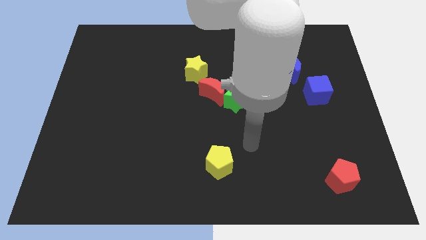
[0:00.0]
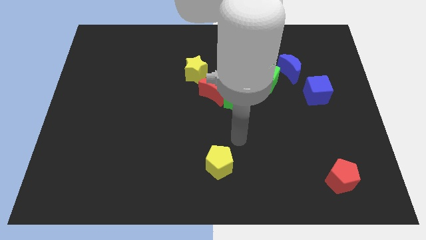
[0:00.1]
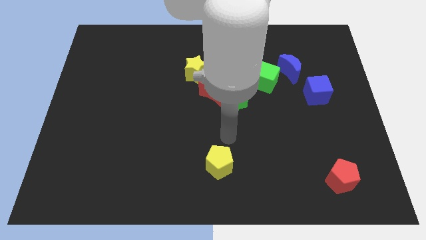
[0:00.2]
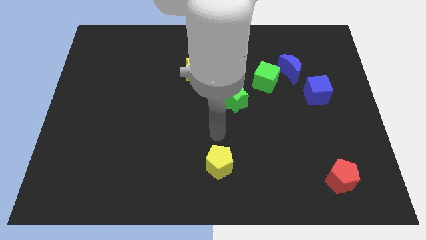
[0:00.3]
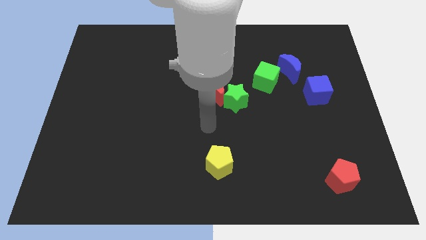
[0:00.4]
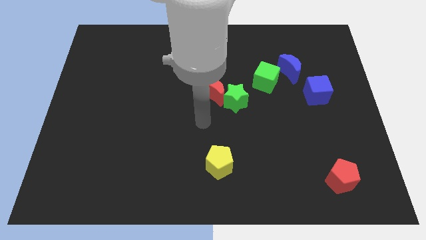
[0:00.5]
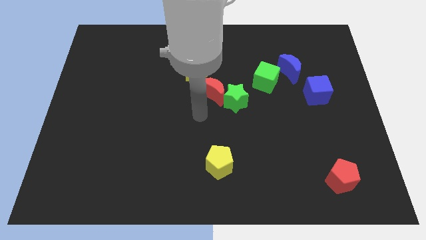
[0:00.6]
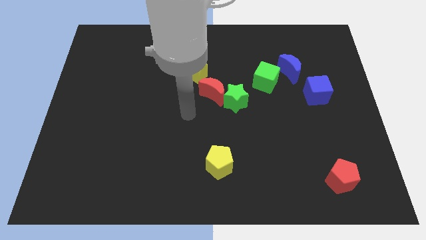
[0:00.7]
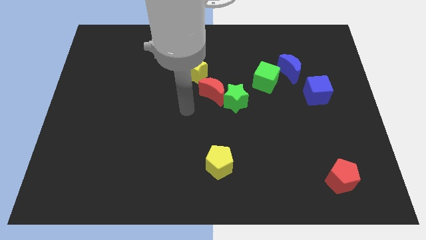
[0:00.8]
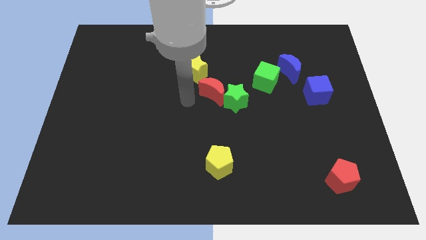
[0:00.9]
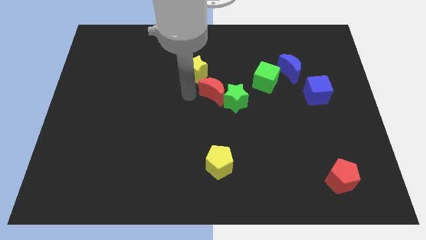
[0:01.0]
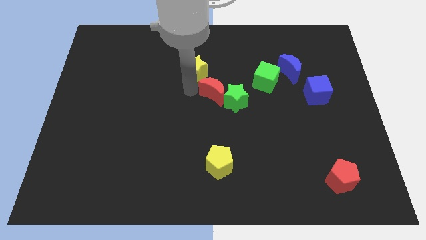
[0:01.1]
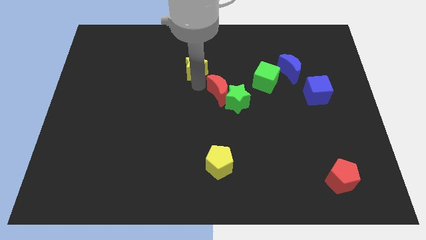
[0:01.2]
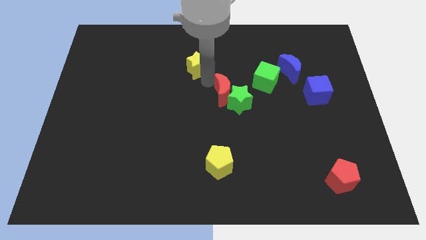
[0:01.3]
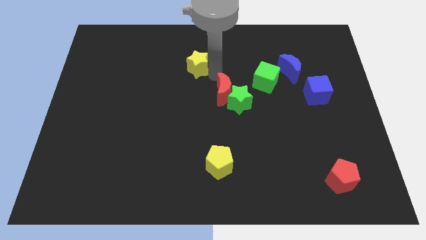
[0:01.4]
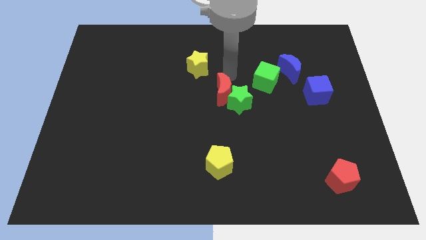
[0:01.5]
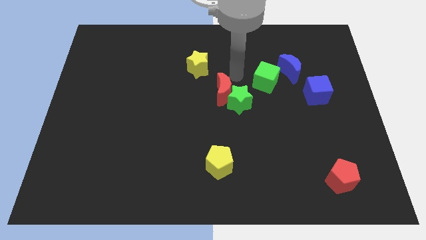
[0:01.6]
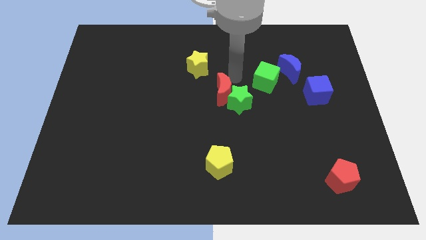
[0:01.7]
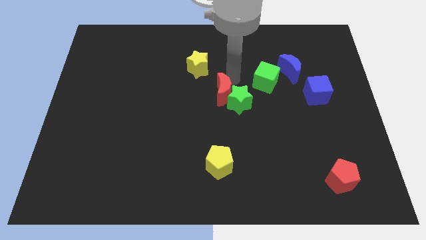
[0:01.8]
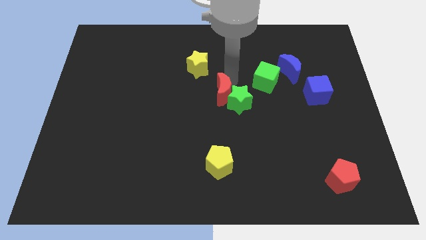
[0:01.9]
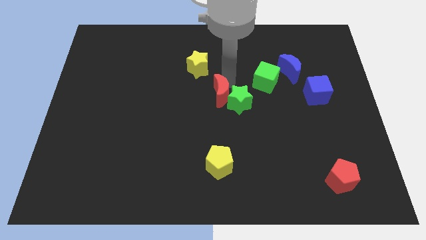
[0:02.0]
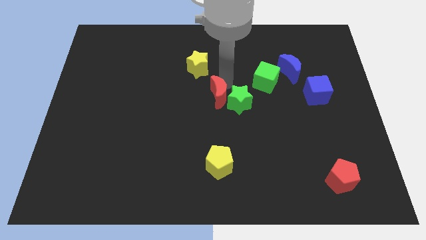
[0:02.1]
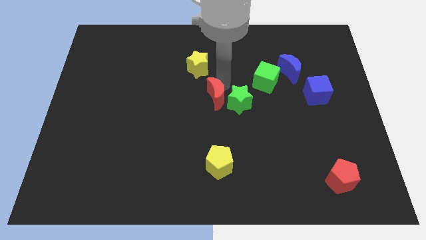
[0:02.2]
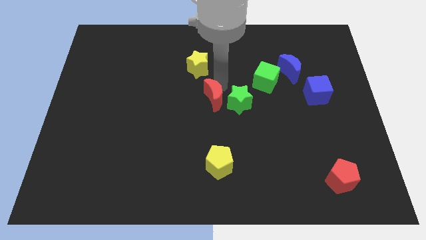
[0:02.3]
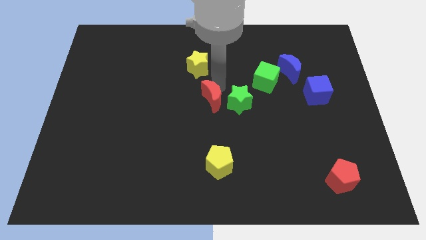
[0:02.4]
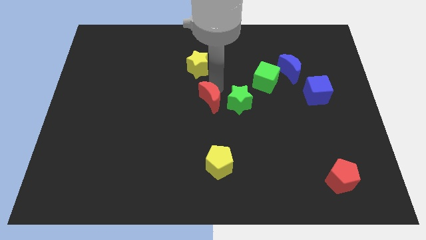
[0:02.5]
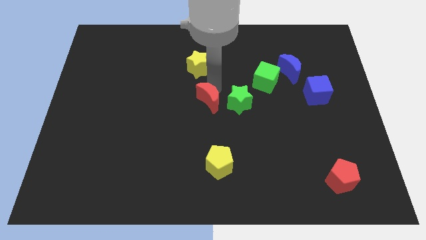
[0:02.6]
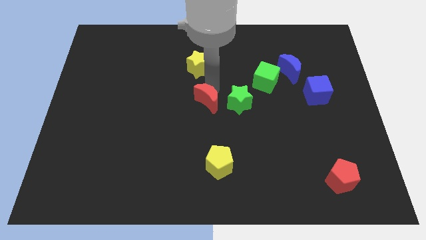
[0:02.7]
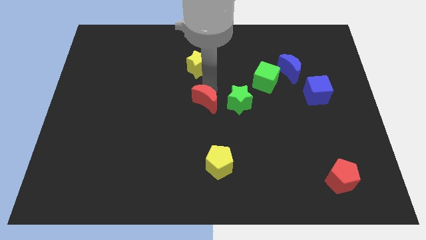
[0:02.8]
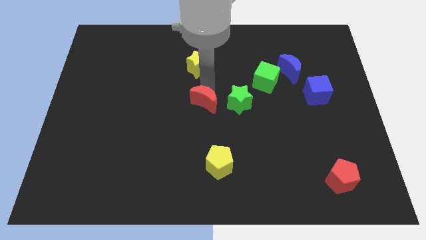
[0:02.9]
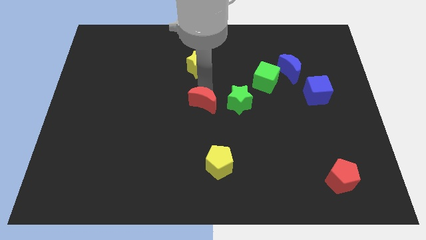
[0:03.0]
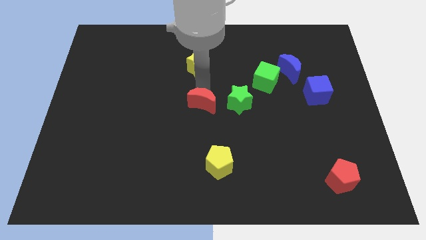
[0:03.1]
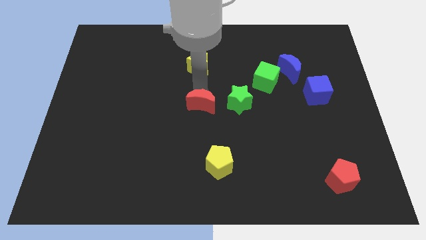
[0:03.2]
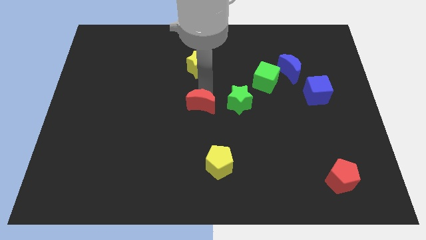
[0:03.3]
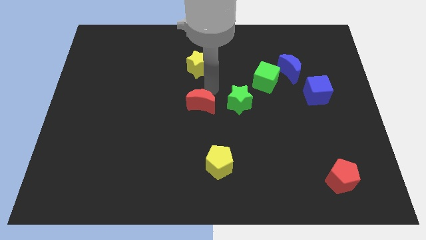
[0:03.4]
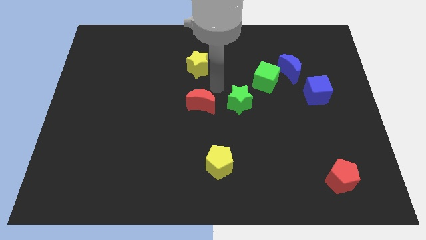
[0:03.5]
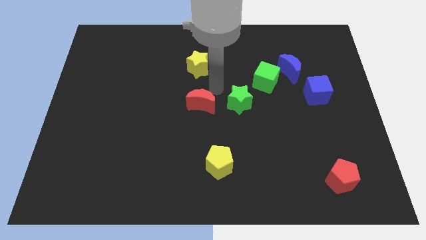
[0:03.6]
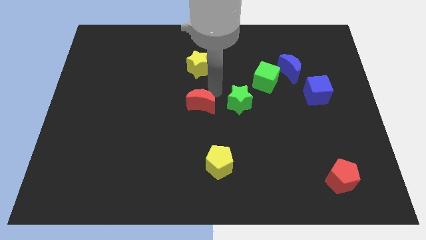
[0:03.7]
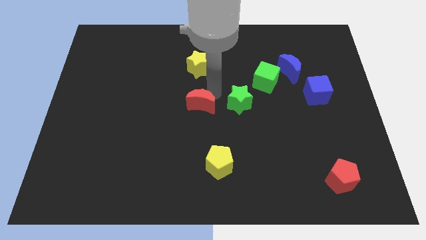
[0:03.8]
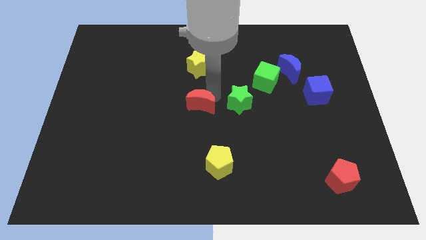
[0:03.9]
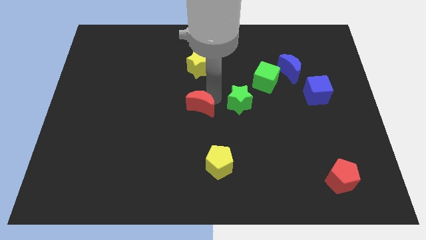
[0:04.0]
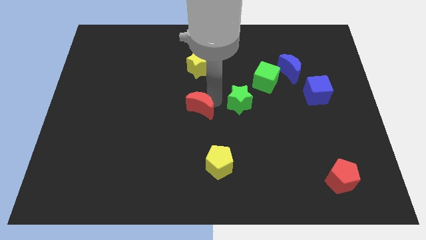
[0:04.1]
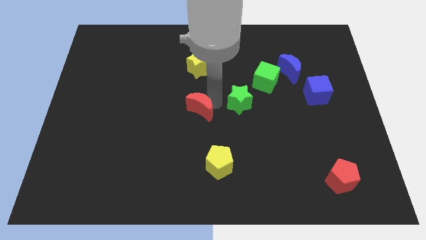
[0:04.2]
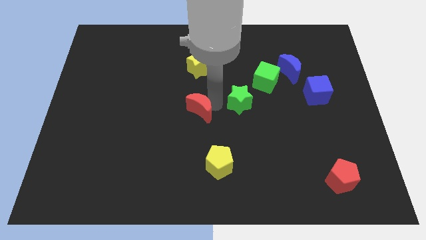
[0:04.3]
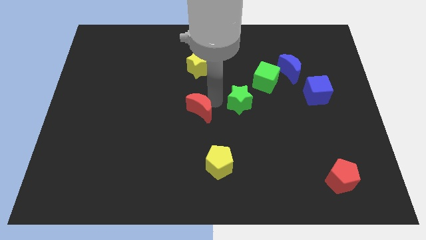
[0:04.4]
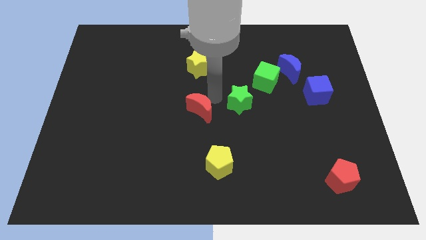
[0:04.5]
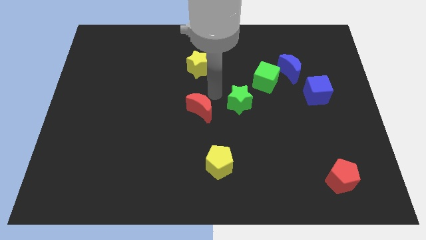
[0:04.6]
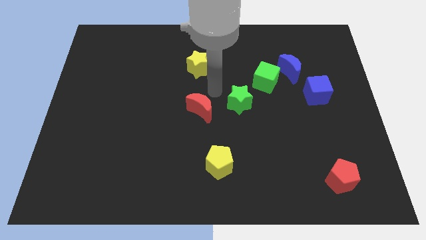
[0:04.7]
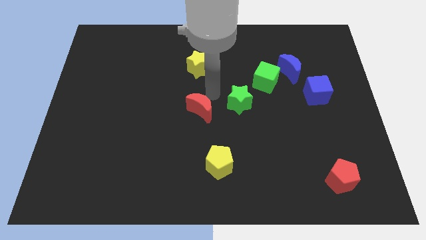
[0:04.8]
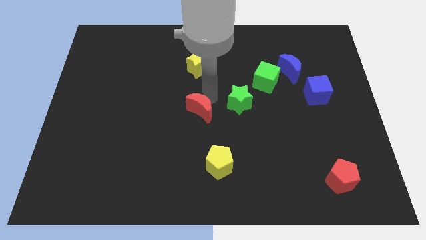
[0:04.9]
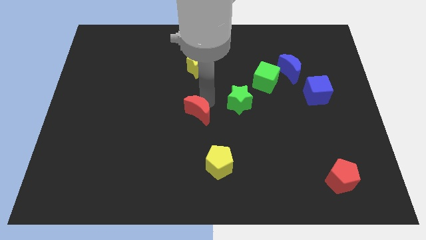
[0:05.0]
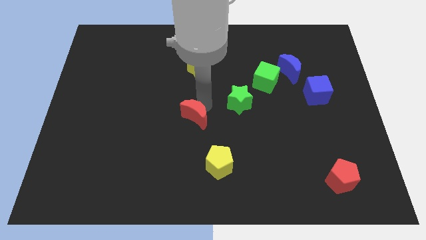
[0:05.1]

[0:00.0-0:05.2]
pull the red moon apart from the green star and yellow star

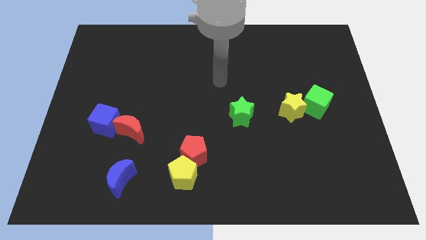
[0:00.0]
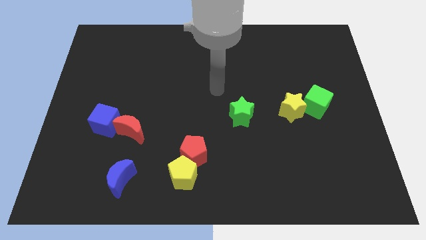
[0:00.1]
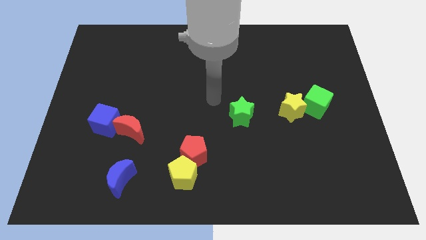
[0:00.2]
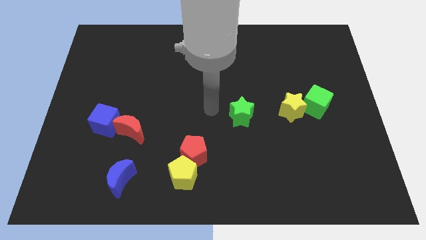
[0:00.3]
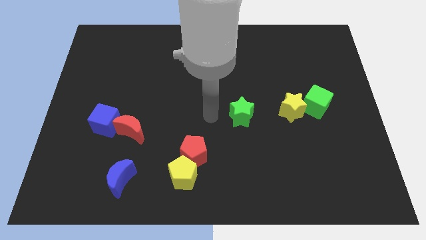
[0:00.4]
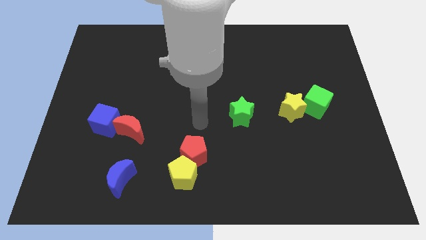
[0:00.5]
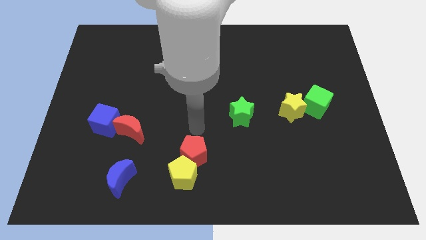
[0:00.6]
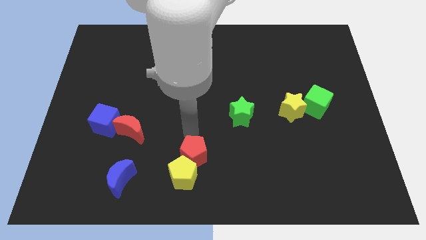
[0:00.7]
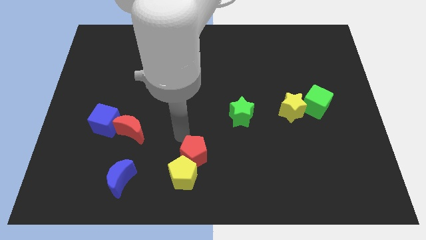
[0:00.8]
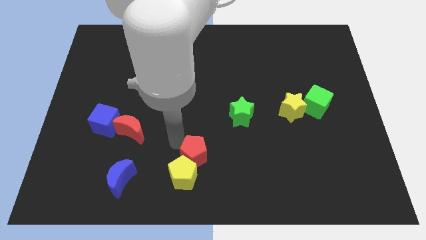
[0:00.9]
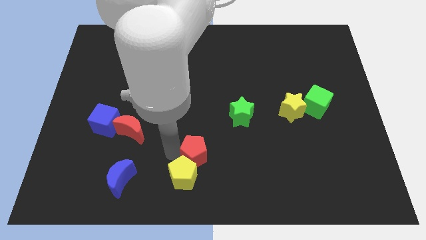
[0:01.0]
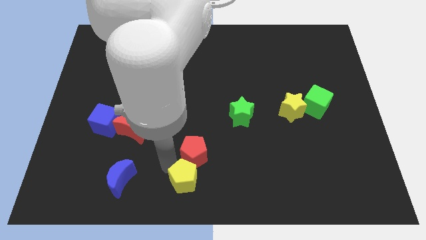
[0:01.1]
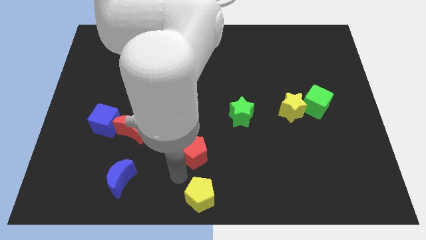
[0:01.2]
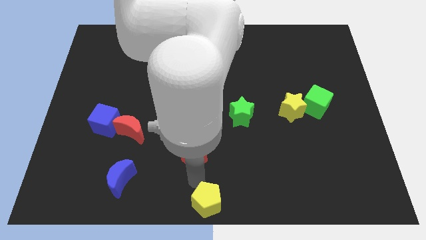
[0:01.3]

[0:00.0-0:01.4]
separate the red pentagon from the yellow pentagon

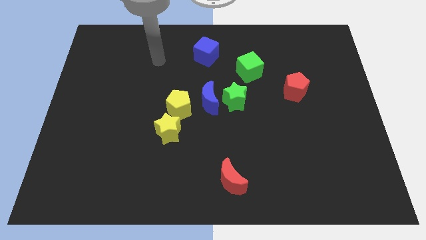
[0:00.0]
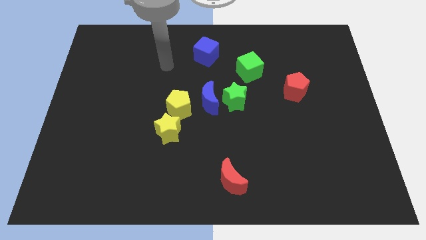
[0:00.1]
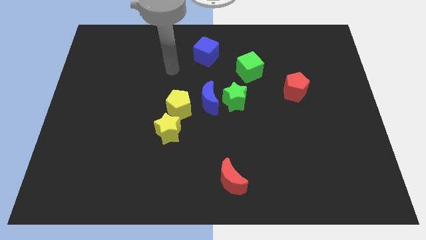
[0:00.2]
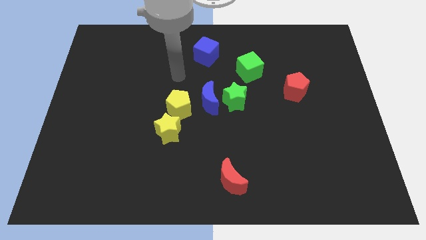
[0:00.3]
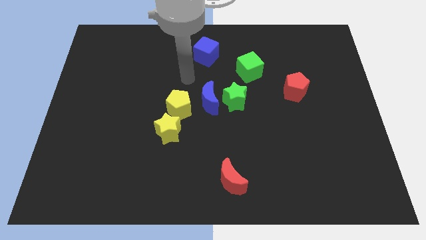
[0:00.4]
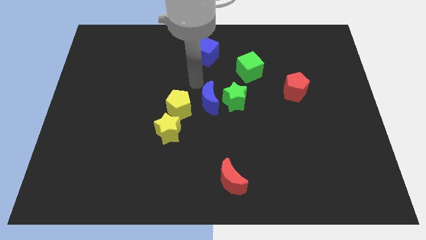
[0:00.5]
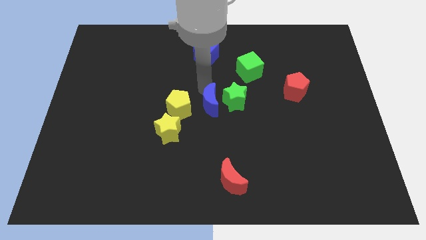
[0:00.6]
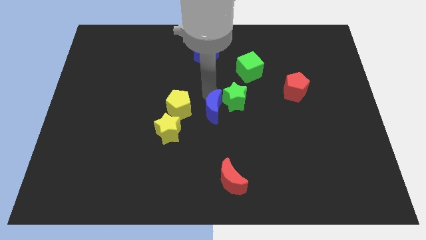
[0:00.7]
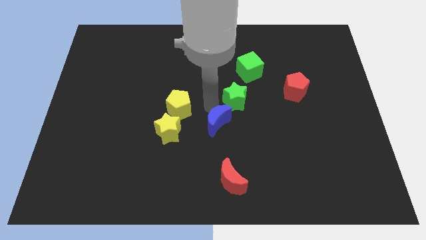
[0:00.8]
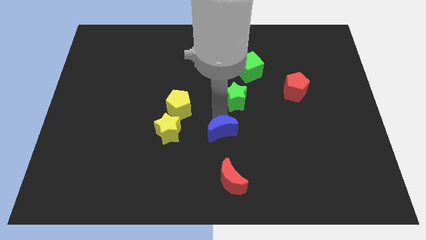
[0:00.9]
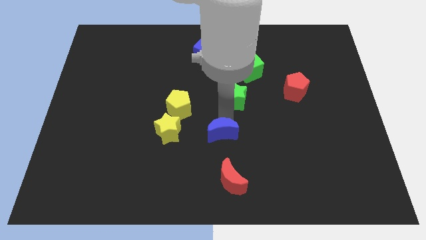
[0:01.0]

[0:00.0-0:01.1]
pull the green star apart from the blue moon

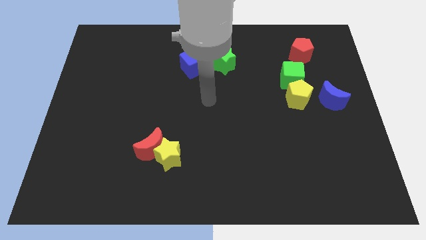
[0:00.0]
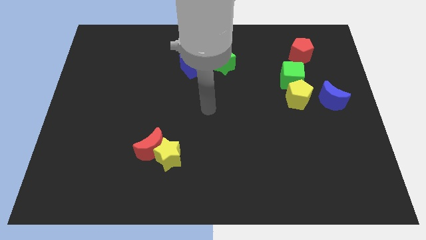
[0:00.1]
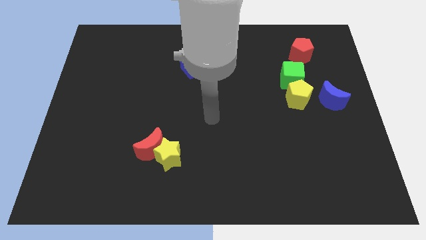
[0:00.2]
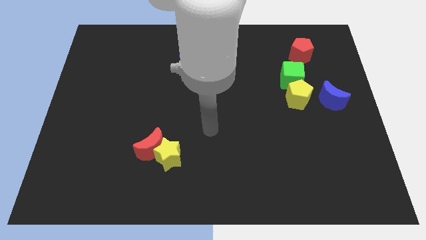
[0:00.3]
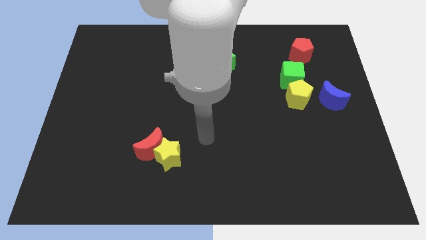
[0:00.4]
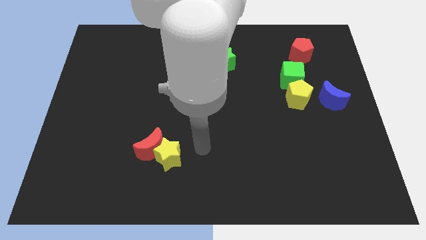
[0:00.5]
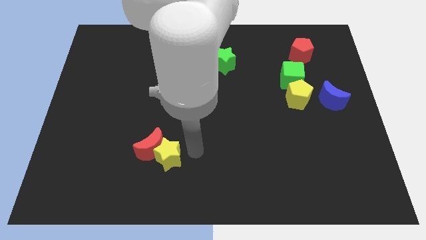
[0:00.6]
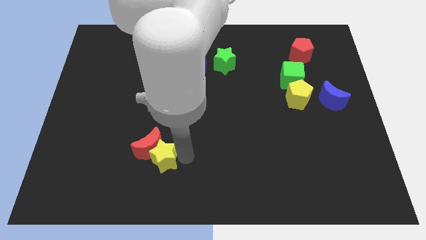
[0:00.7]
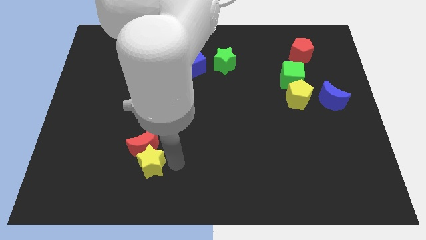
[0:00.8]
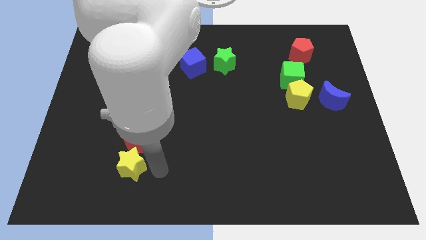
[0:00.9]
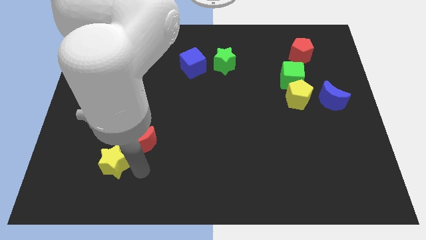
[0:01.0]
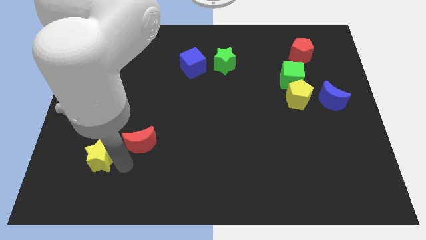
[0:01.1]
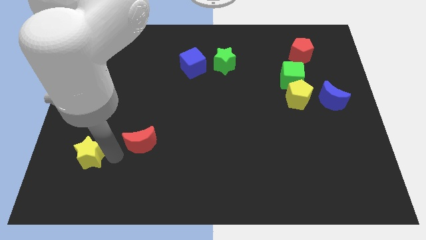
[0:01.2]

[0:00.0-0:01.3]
move the red moon away from the yellow star

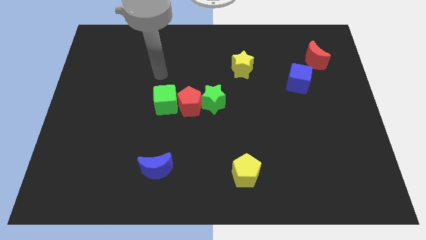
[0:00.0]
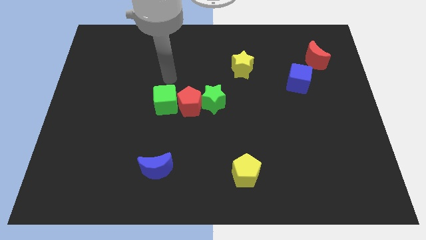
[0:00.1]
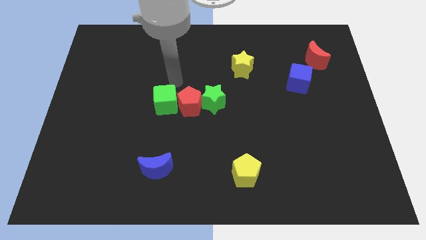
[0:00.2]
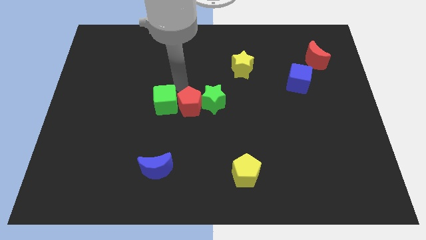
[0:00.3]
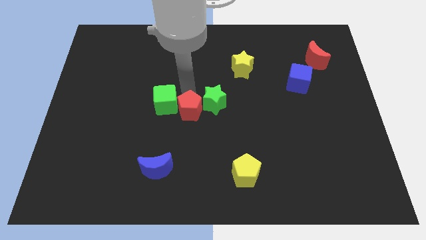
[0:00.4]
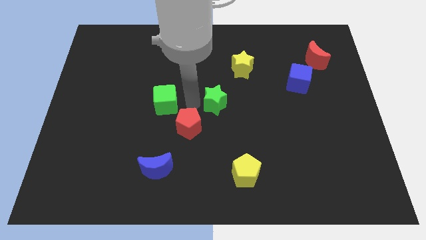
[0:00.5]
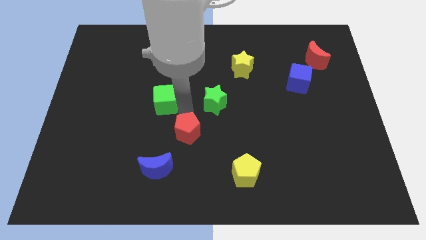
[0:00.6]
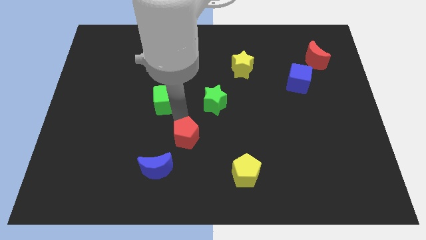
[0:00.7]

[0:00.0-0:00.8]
separate the green cube from the red pentagon
